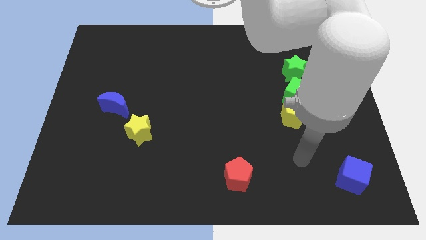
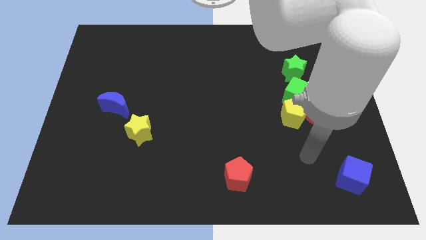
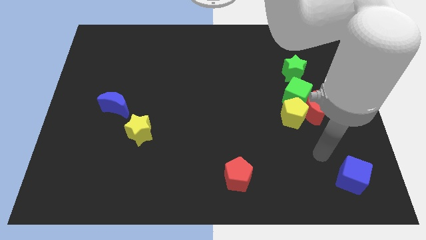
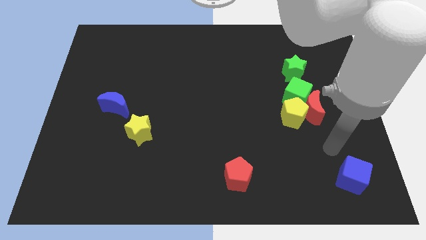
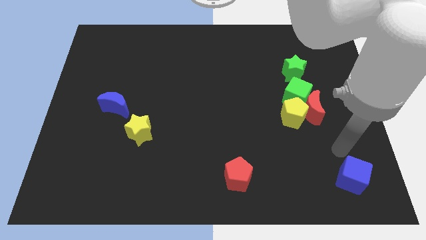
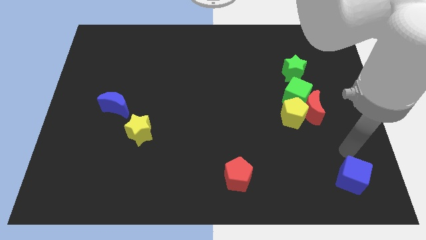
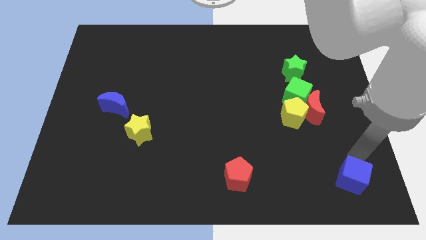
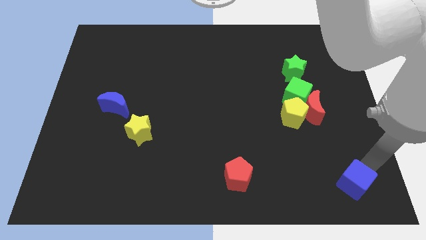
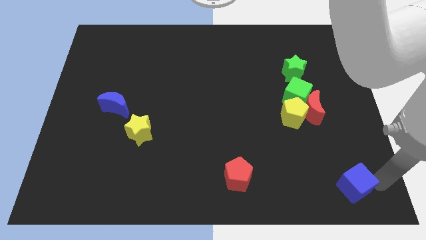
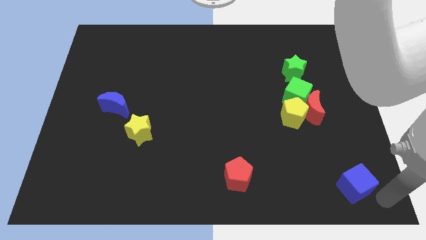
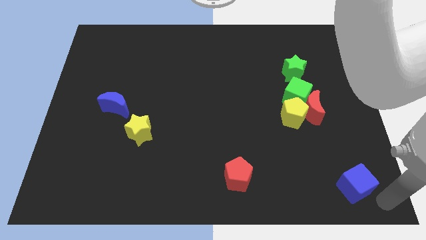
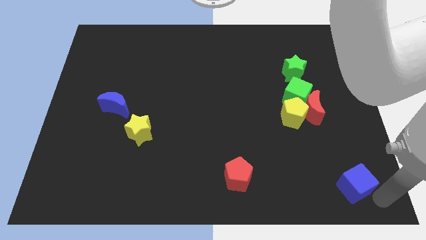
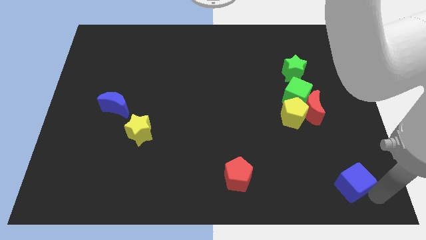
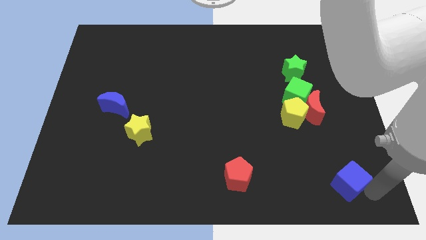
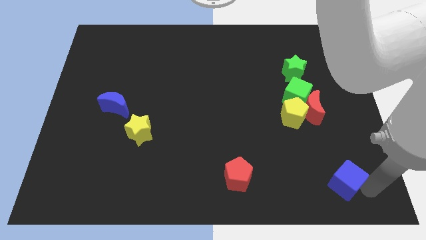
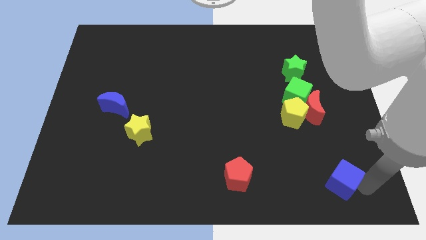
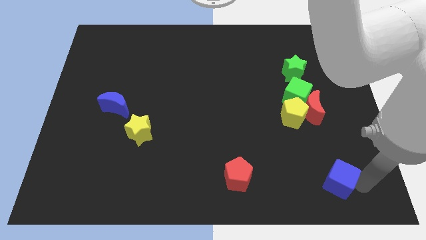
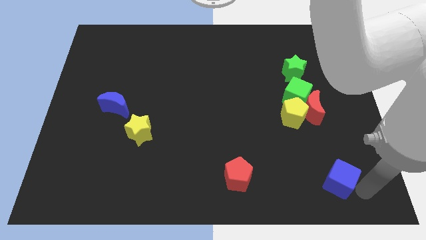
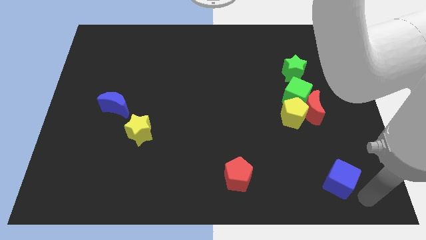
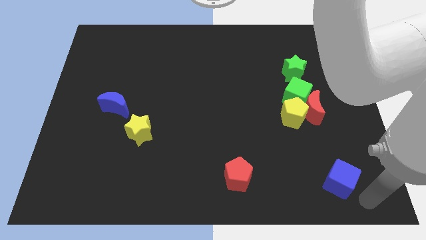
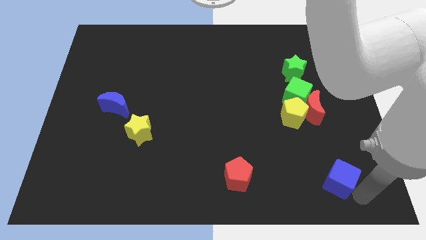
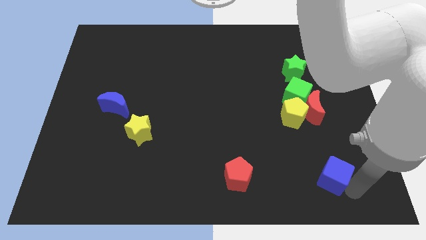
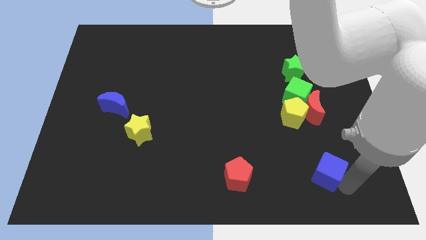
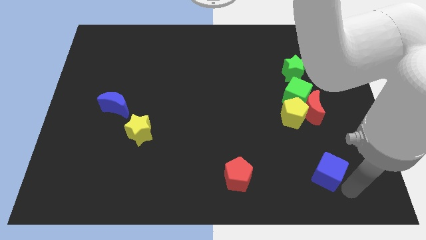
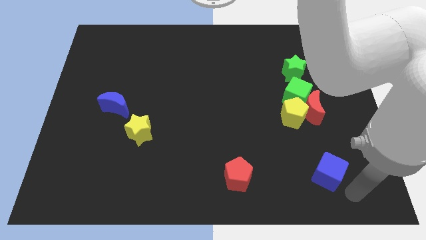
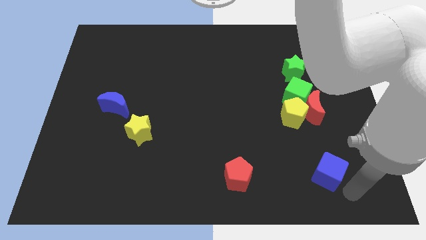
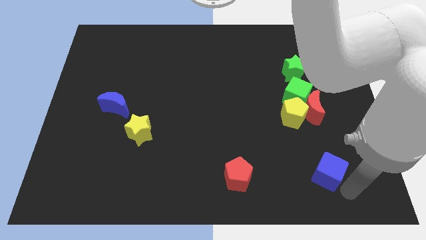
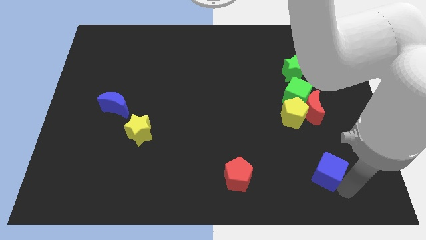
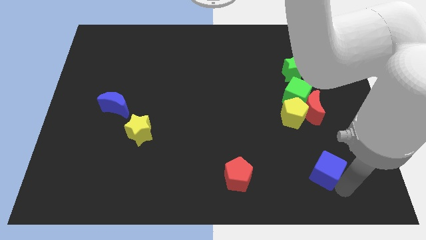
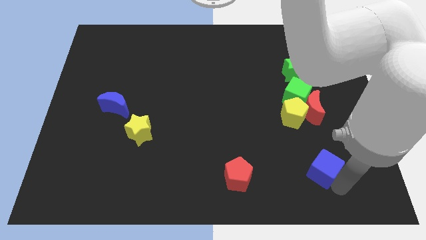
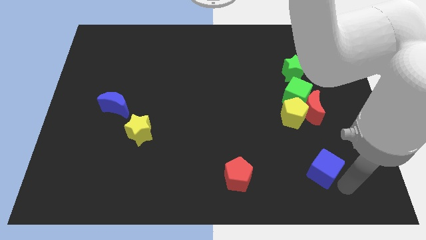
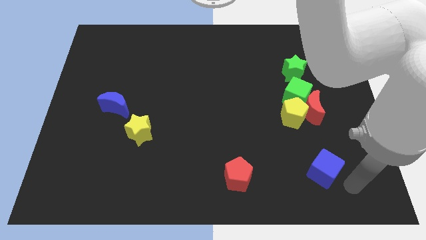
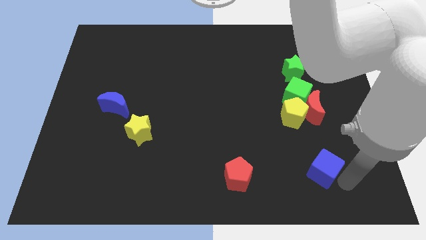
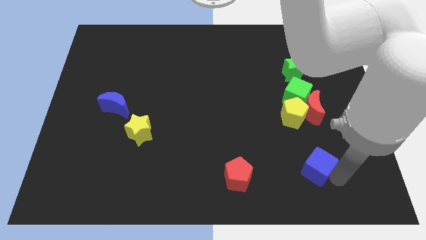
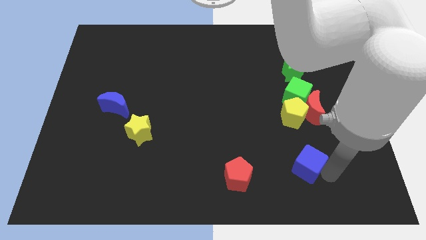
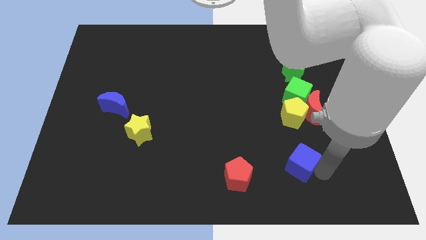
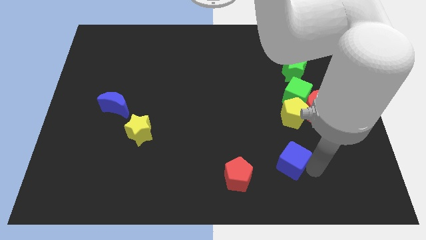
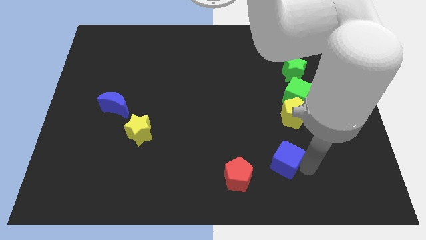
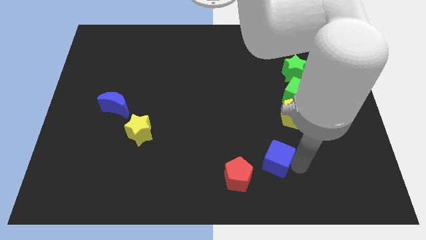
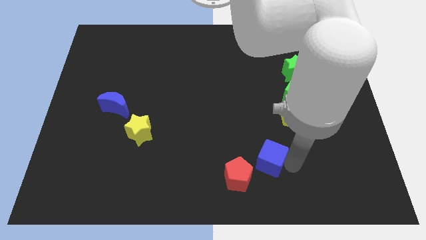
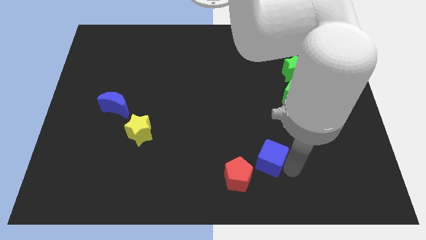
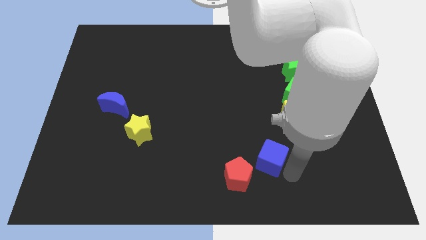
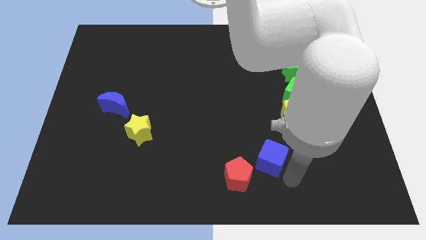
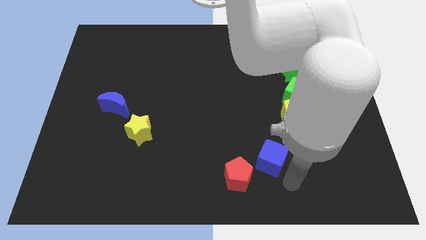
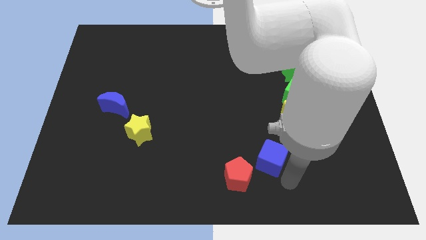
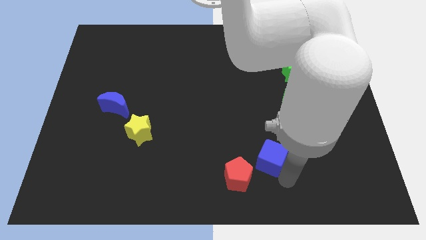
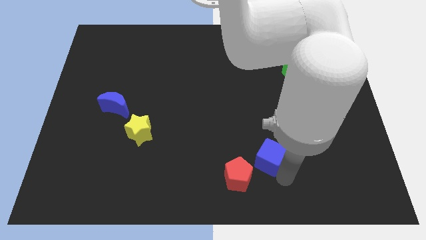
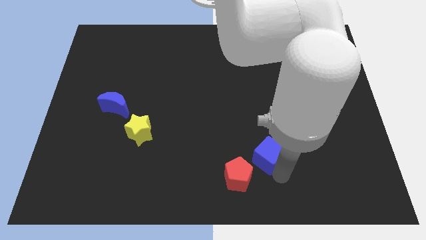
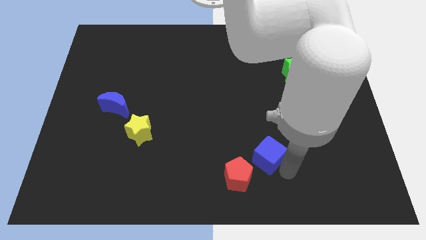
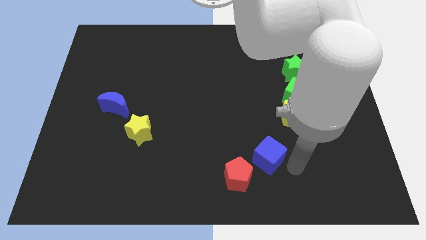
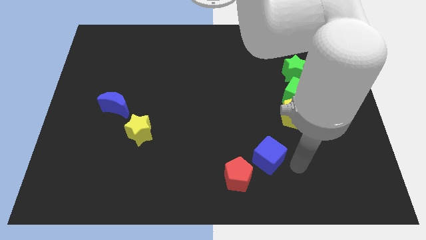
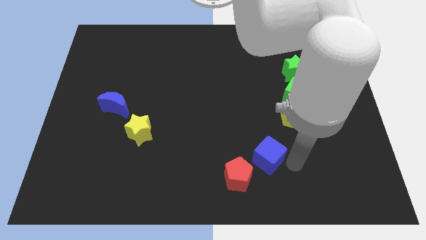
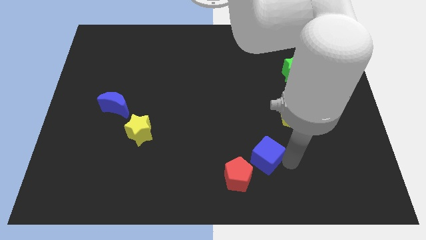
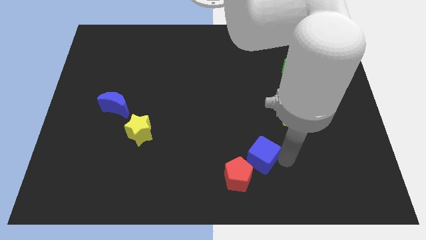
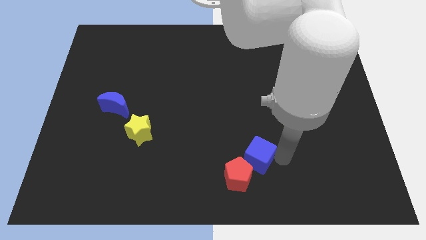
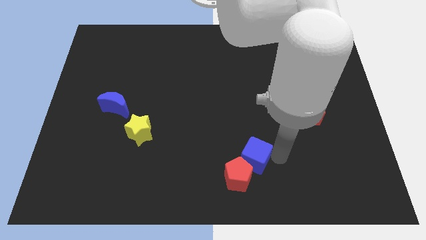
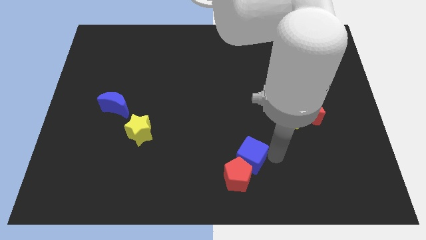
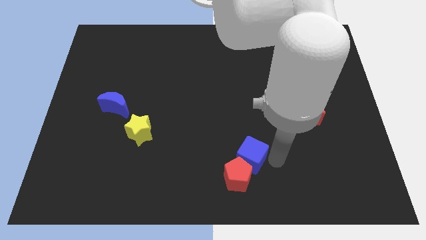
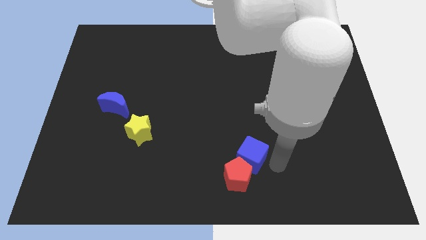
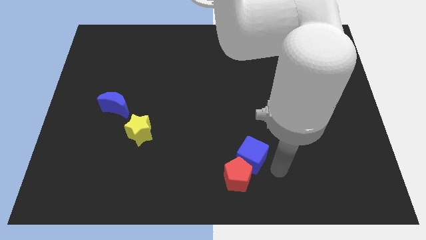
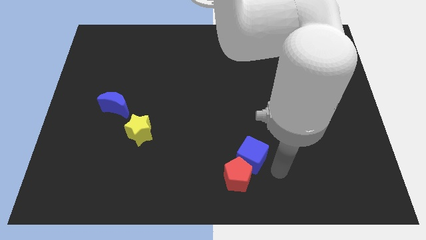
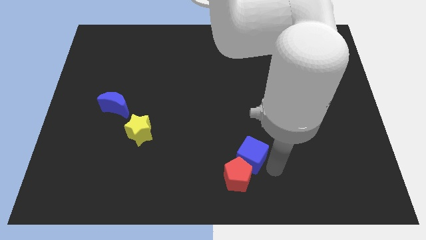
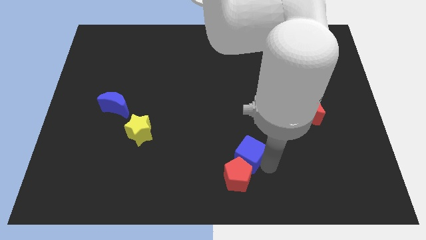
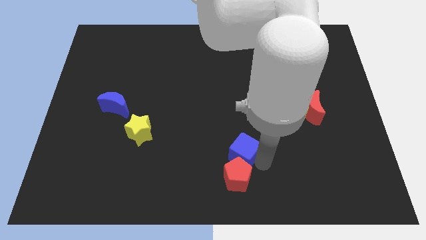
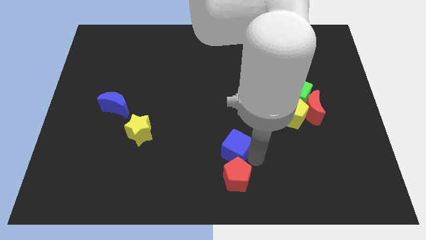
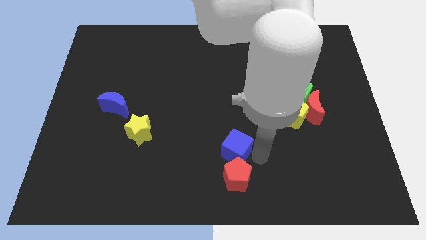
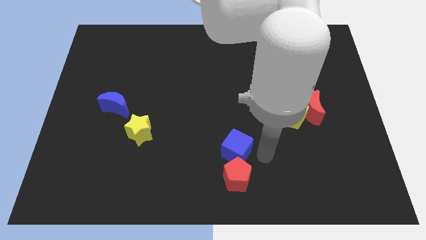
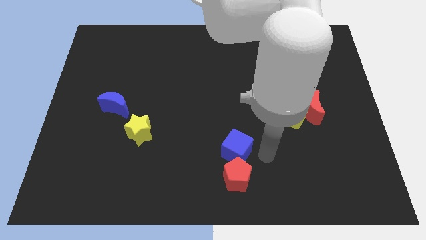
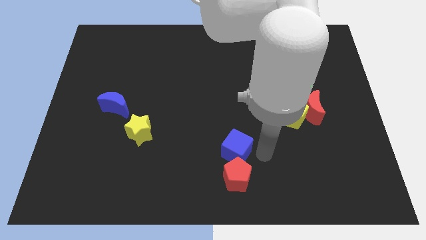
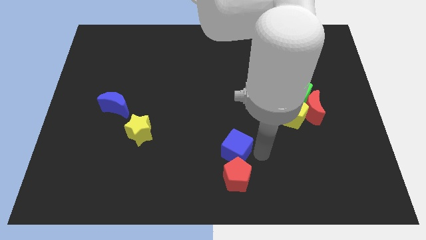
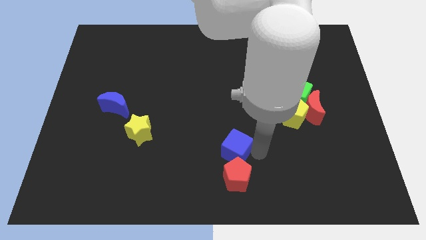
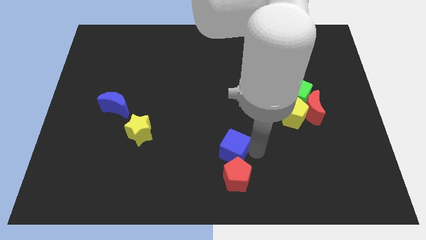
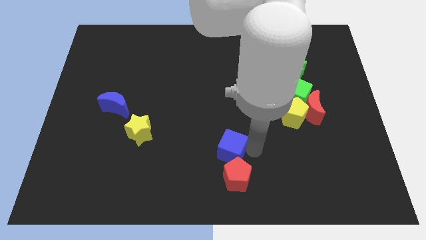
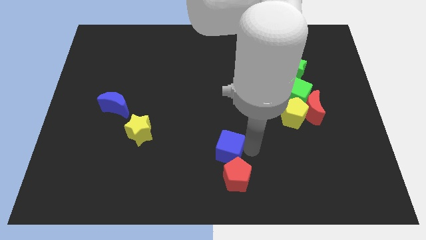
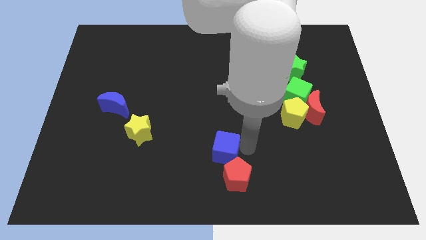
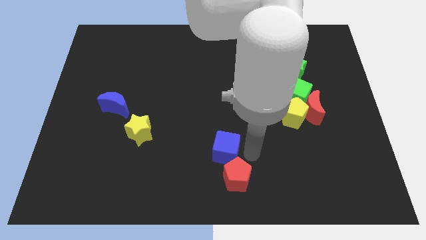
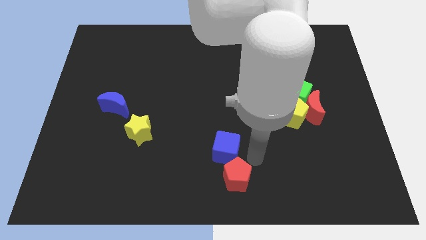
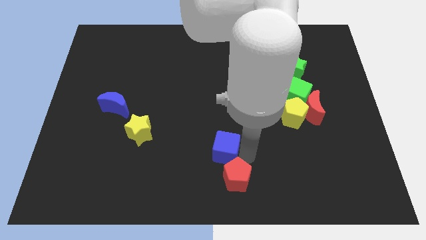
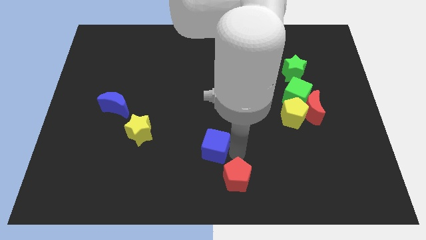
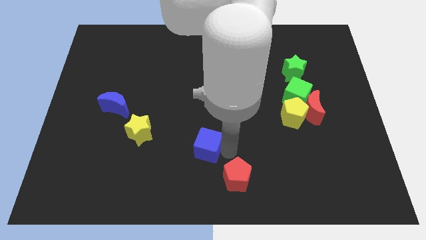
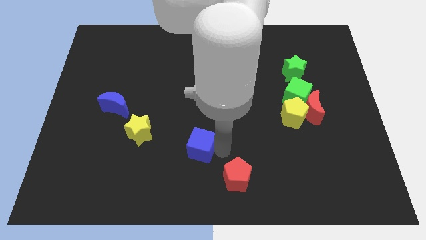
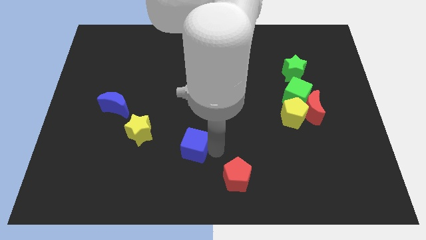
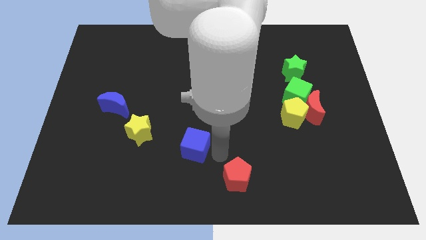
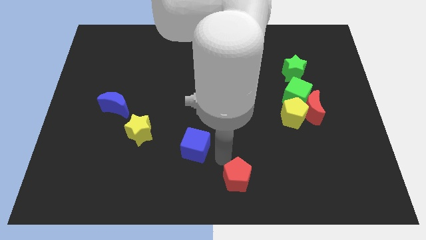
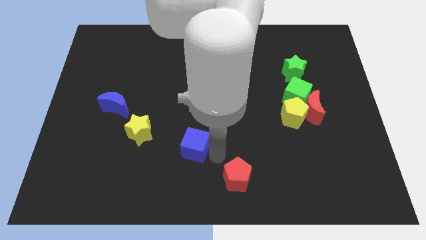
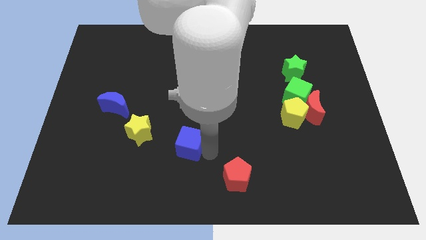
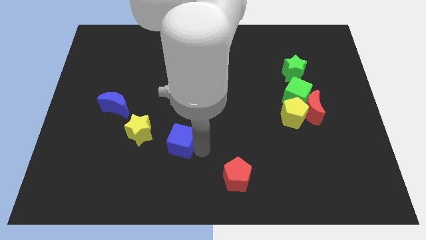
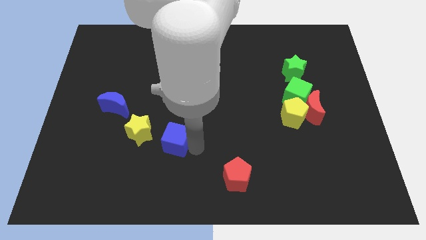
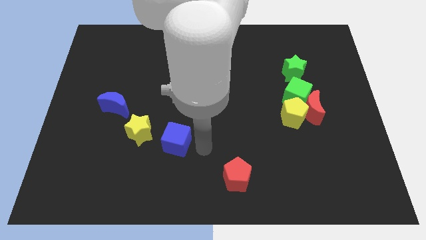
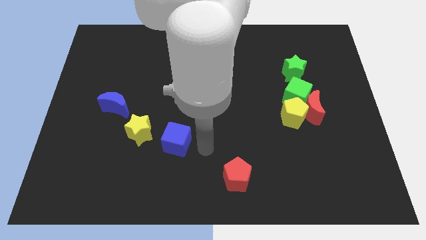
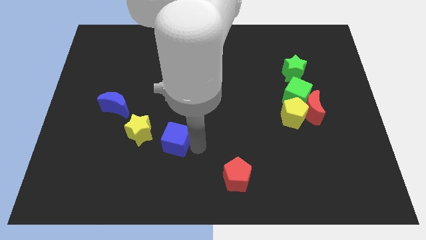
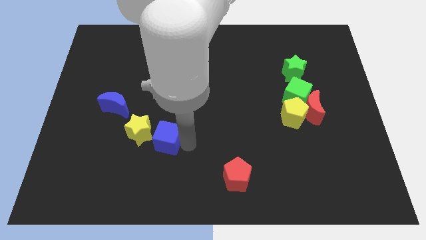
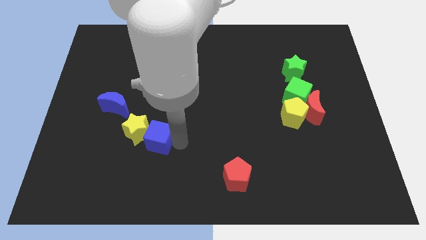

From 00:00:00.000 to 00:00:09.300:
move the blue cube towards the yellow star
